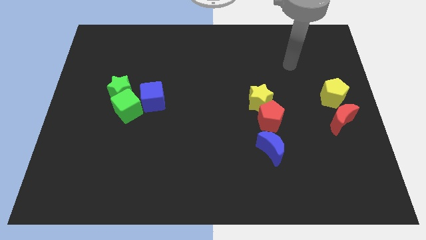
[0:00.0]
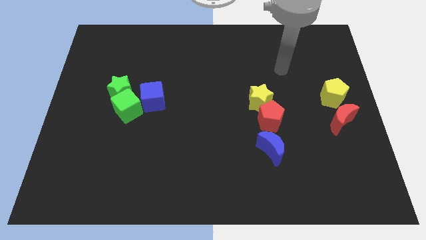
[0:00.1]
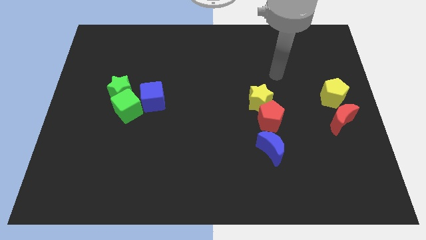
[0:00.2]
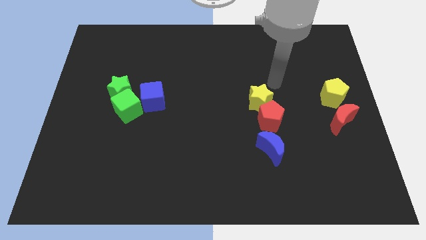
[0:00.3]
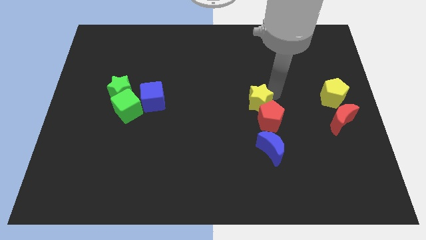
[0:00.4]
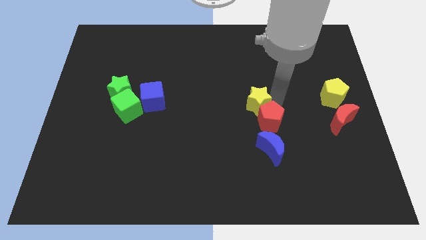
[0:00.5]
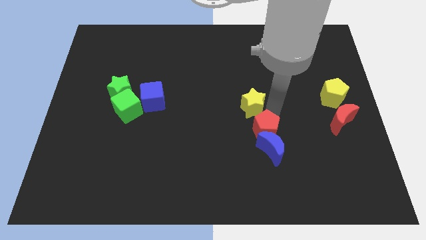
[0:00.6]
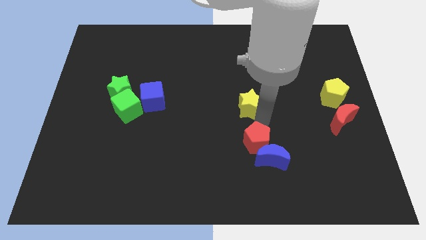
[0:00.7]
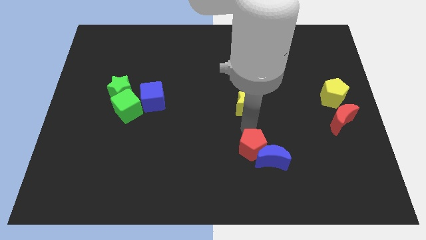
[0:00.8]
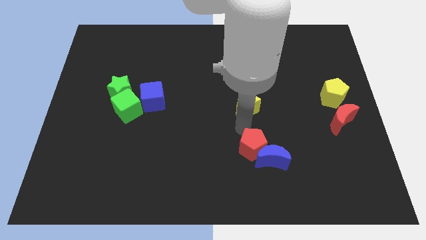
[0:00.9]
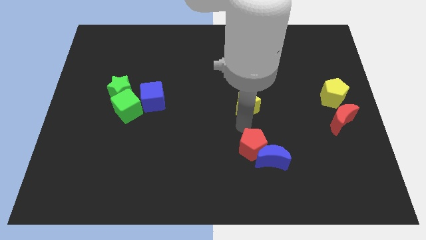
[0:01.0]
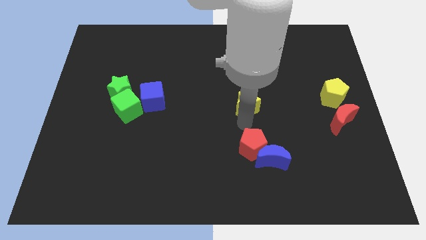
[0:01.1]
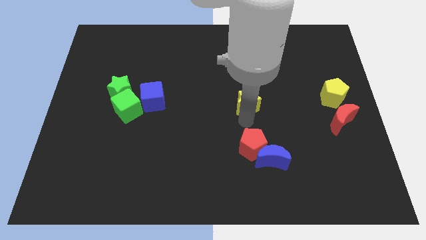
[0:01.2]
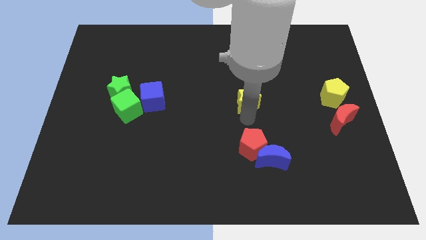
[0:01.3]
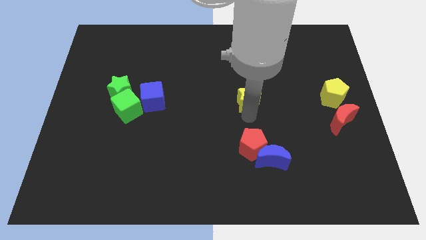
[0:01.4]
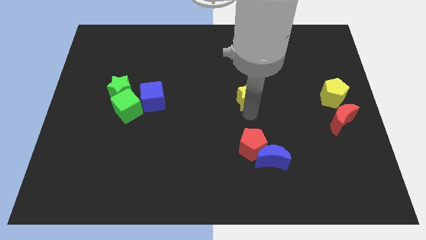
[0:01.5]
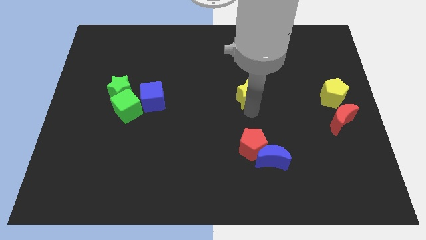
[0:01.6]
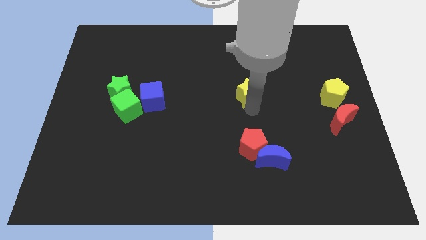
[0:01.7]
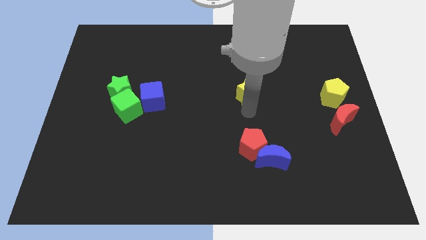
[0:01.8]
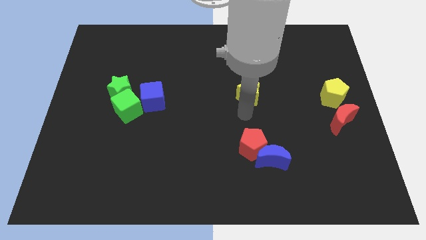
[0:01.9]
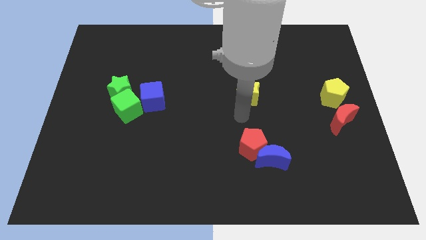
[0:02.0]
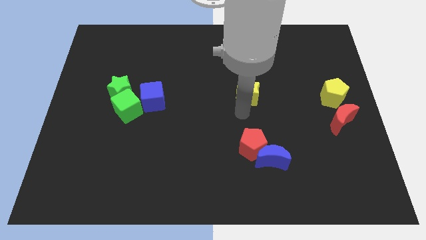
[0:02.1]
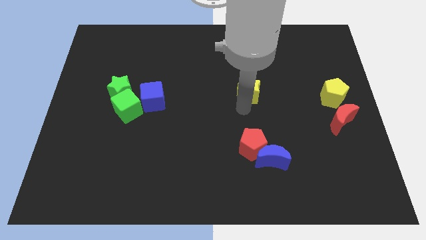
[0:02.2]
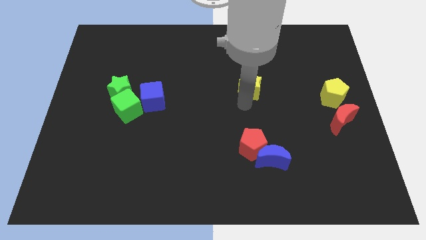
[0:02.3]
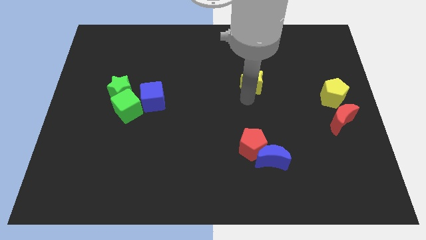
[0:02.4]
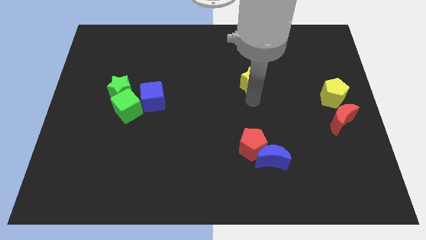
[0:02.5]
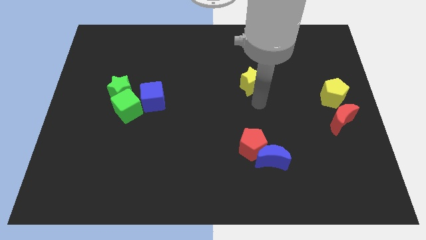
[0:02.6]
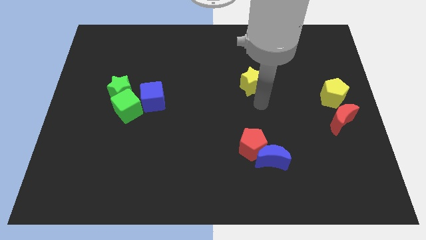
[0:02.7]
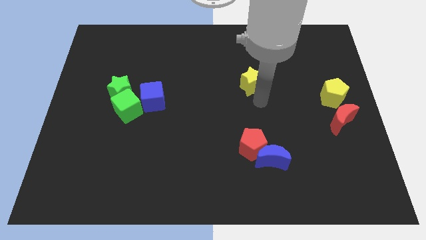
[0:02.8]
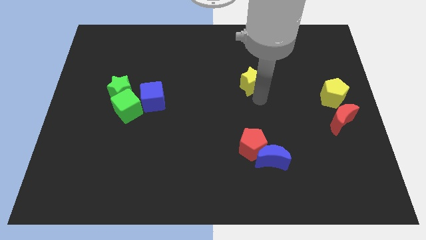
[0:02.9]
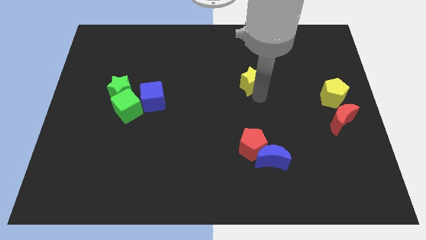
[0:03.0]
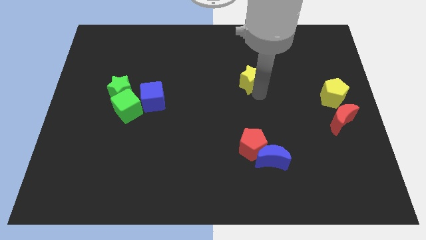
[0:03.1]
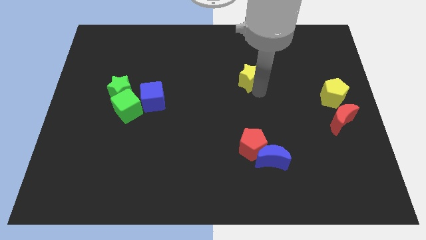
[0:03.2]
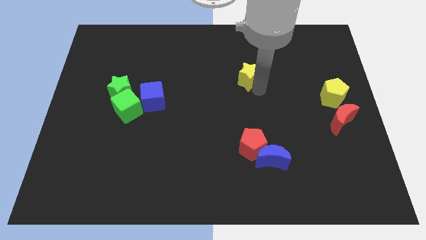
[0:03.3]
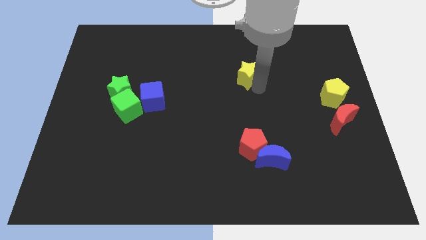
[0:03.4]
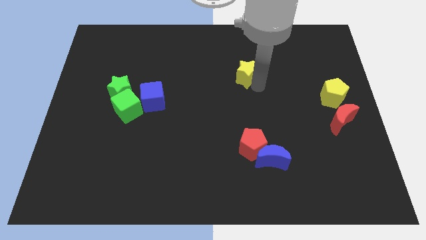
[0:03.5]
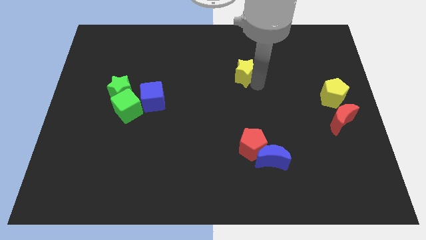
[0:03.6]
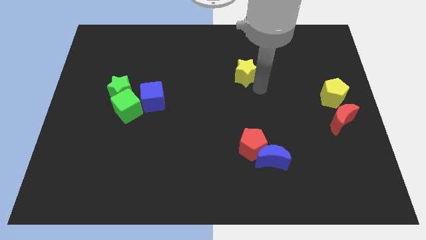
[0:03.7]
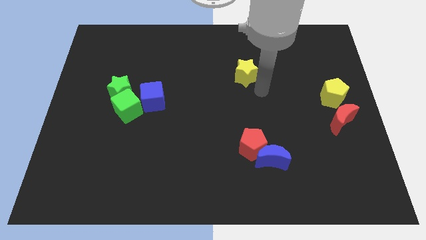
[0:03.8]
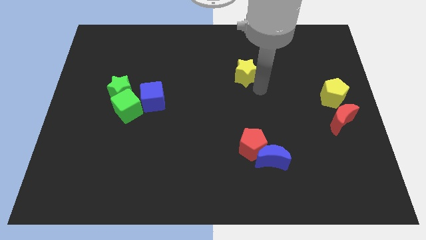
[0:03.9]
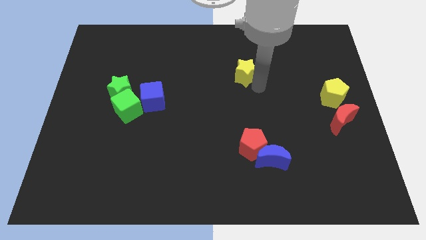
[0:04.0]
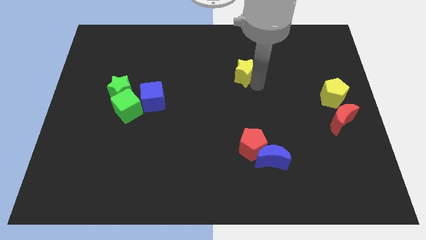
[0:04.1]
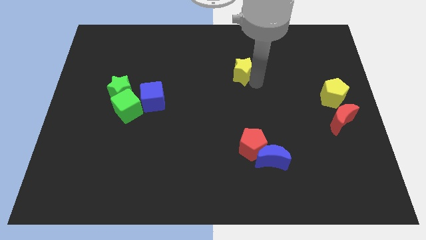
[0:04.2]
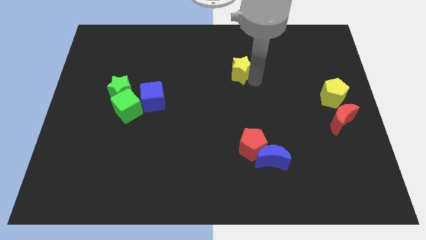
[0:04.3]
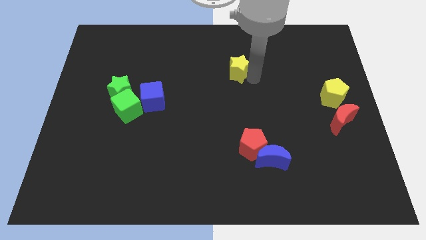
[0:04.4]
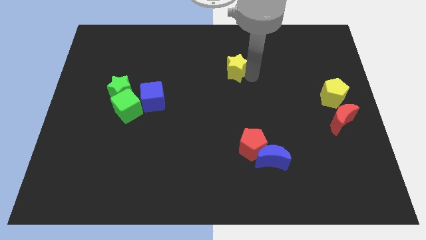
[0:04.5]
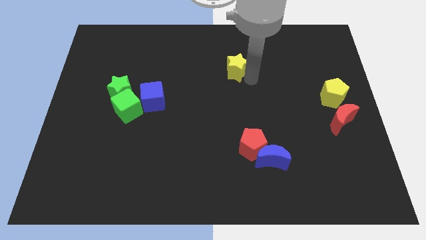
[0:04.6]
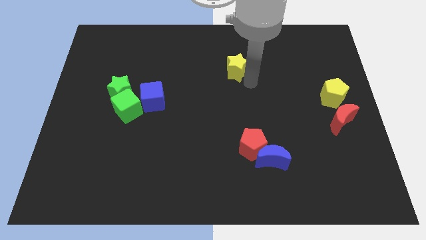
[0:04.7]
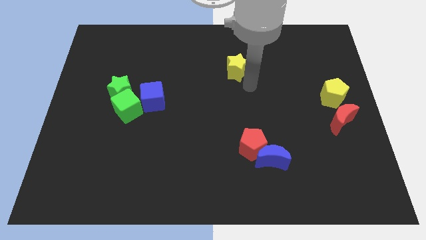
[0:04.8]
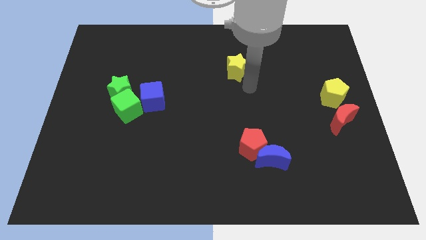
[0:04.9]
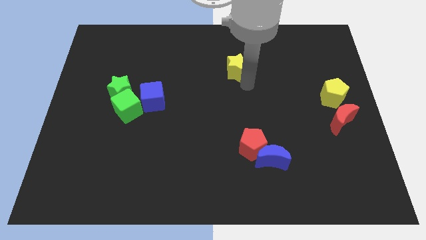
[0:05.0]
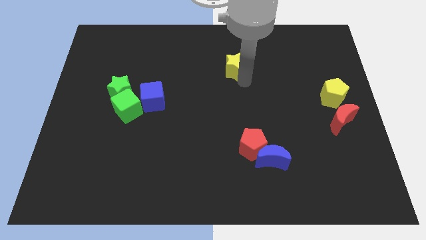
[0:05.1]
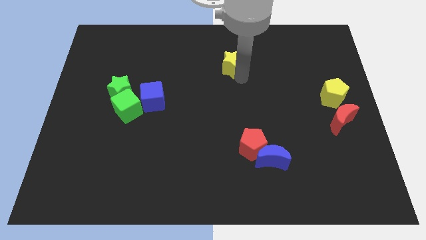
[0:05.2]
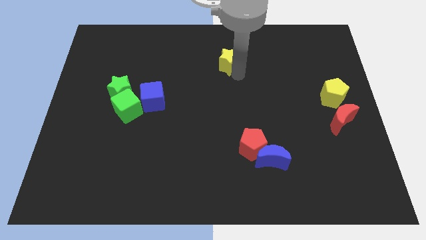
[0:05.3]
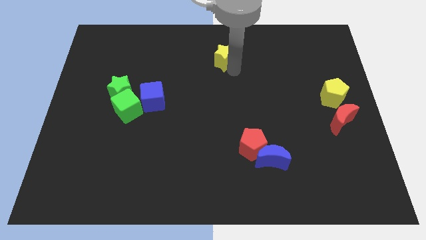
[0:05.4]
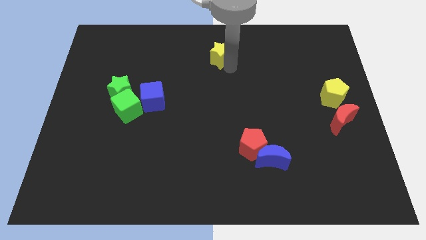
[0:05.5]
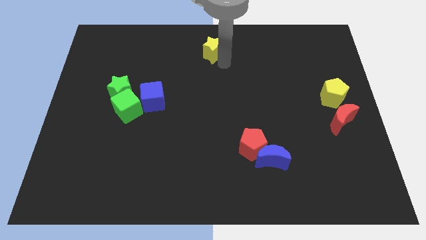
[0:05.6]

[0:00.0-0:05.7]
push the yellow star to the top side
